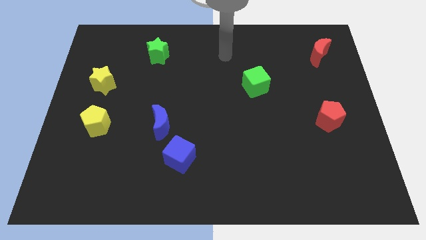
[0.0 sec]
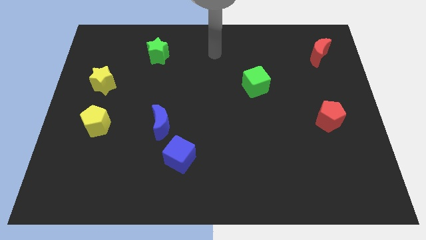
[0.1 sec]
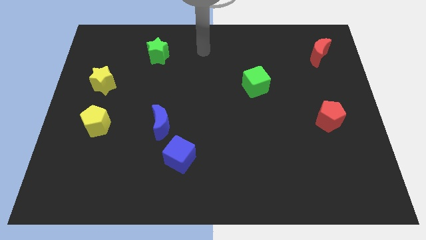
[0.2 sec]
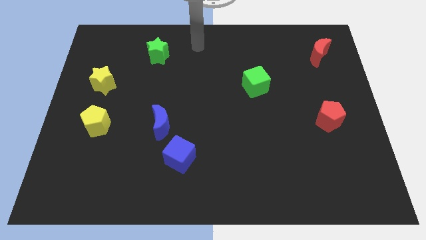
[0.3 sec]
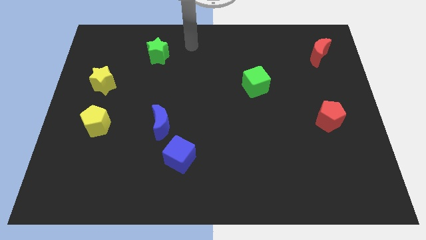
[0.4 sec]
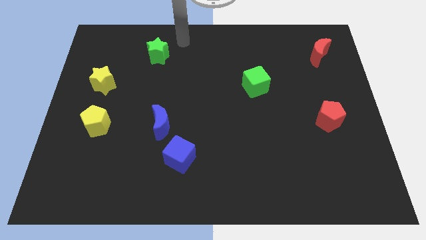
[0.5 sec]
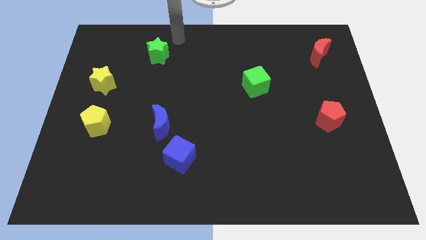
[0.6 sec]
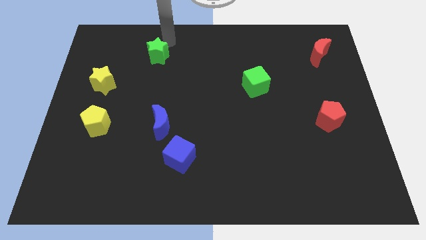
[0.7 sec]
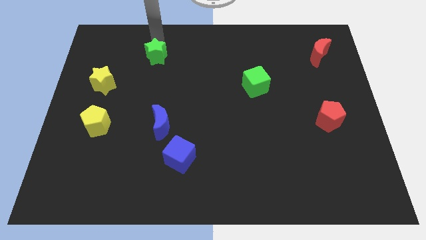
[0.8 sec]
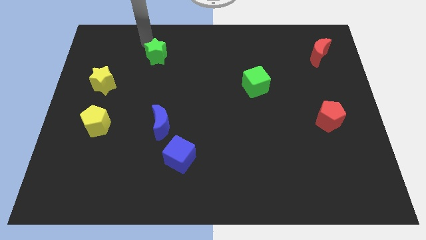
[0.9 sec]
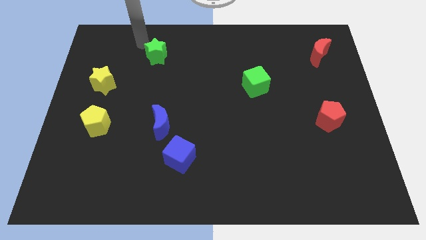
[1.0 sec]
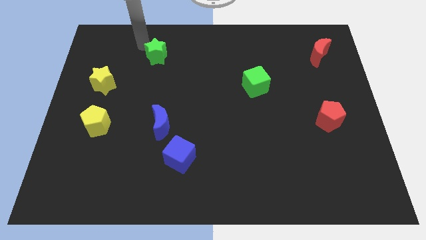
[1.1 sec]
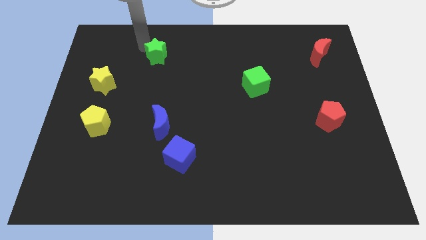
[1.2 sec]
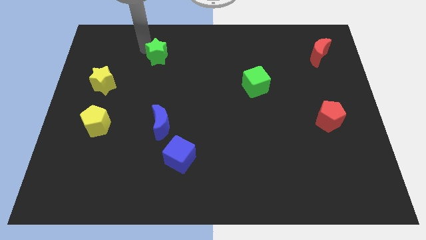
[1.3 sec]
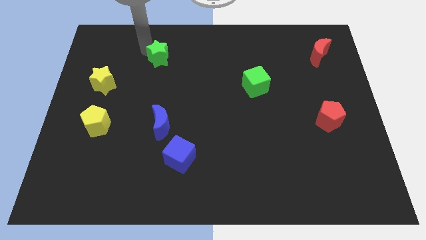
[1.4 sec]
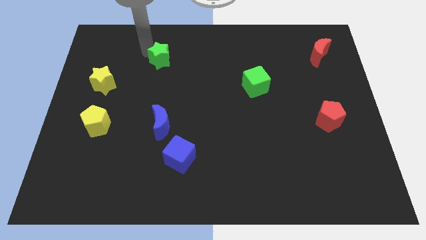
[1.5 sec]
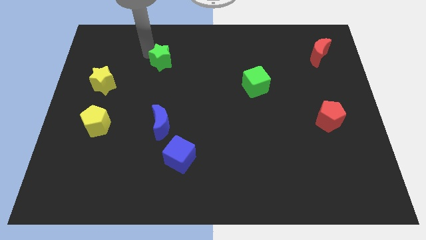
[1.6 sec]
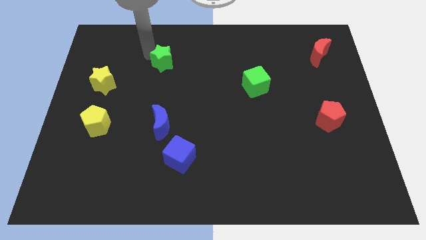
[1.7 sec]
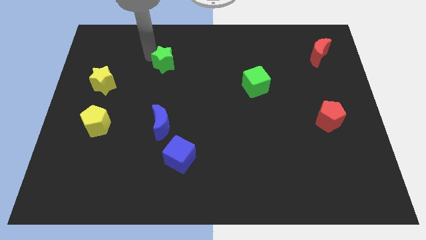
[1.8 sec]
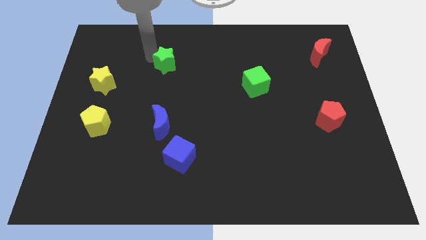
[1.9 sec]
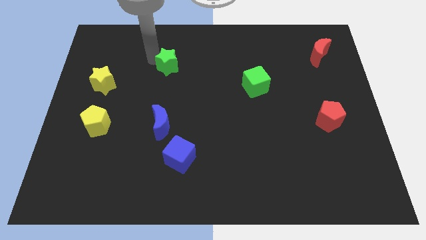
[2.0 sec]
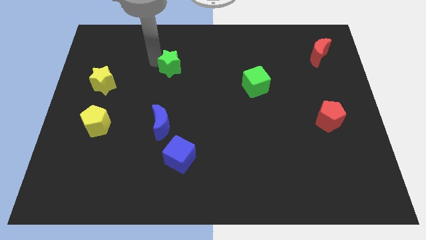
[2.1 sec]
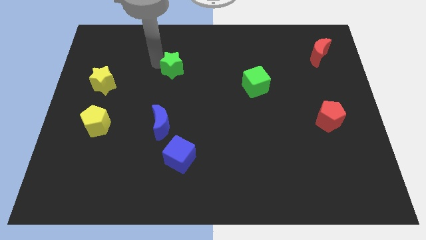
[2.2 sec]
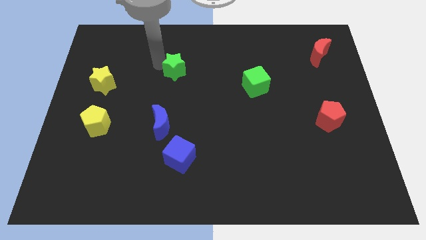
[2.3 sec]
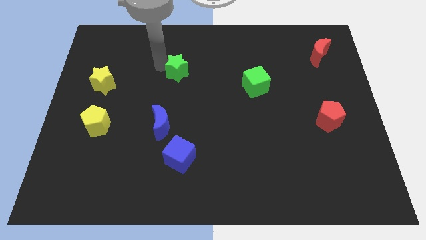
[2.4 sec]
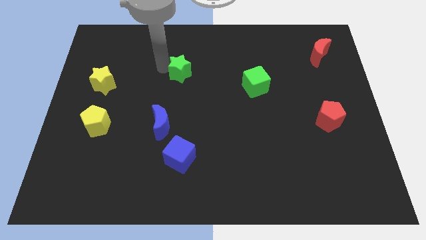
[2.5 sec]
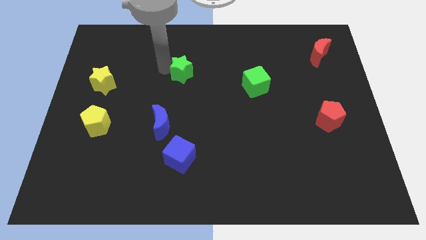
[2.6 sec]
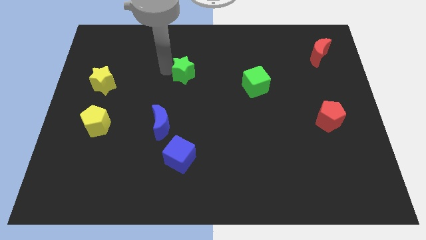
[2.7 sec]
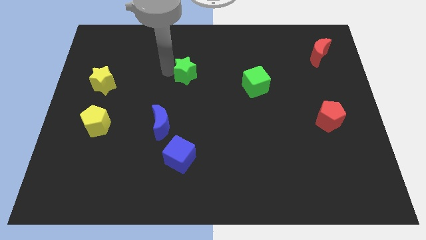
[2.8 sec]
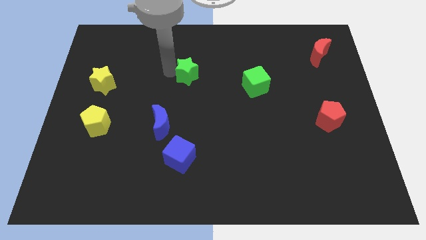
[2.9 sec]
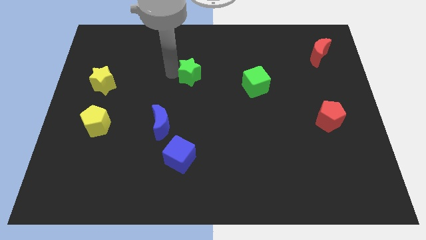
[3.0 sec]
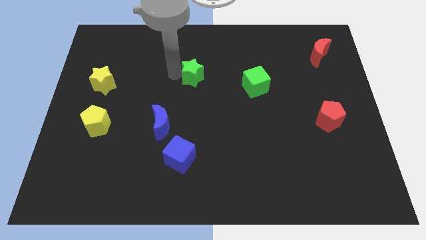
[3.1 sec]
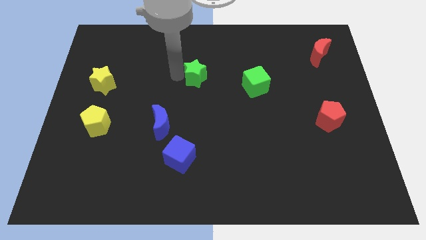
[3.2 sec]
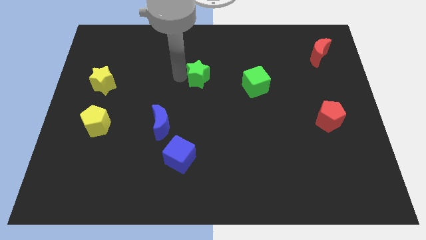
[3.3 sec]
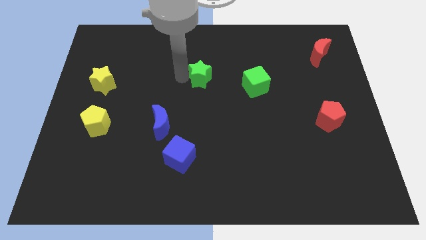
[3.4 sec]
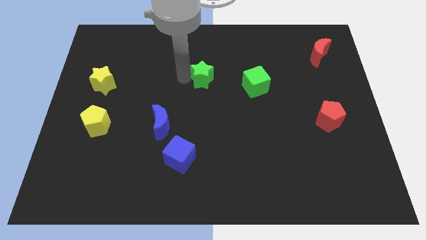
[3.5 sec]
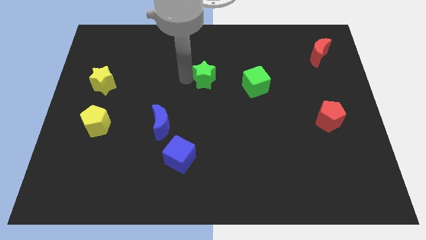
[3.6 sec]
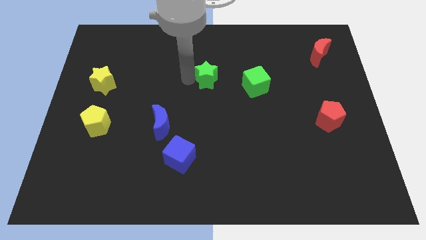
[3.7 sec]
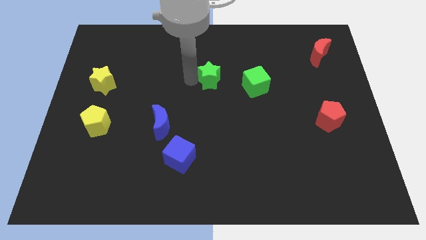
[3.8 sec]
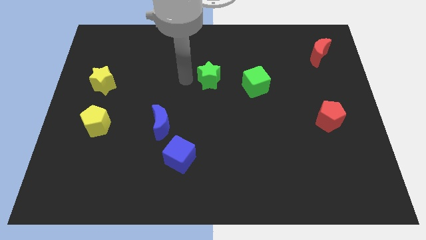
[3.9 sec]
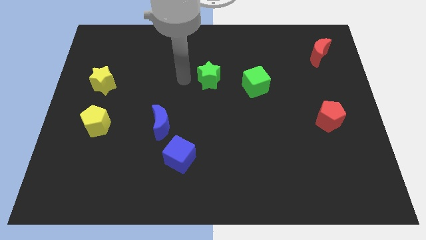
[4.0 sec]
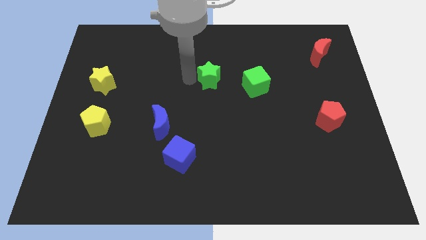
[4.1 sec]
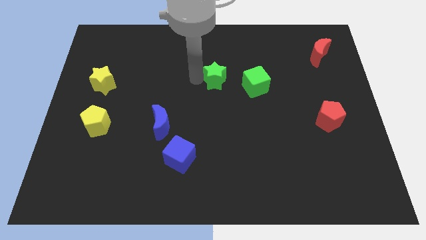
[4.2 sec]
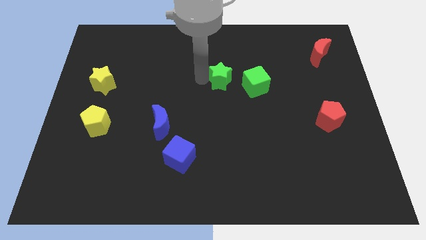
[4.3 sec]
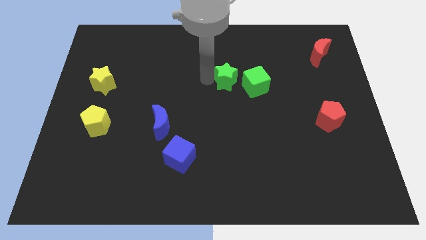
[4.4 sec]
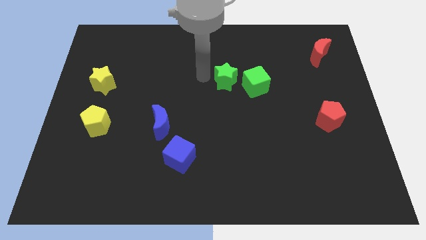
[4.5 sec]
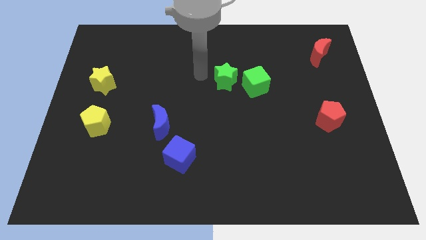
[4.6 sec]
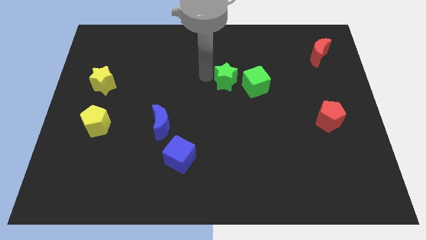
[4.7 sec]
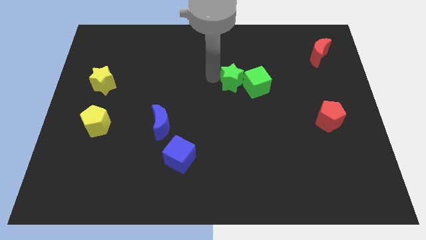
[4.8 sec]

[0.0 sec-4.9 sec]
push the green star next to the green cube

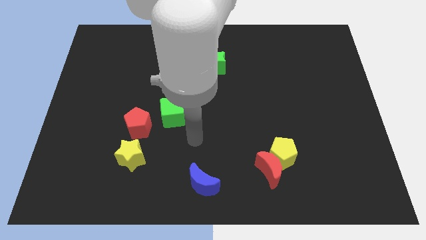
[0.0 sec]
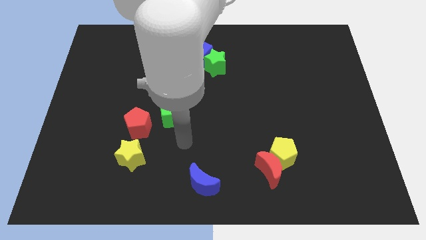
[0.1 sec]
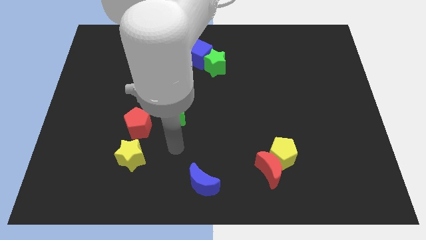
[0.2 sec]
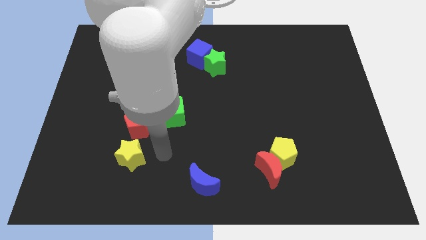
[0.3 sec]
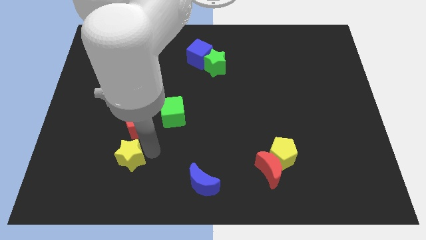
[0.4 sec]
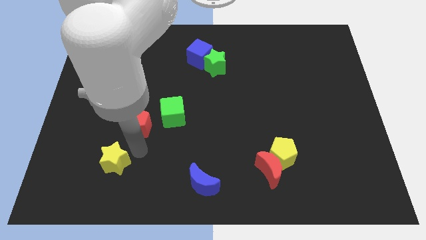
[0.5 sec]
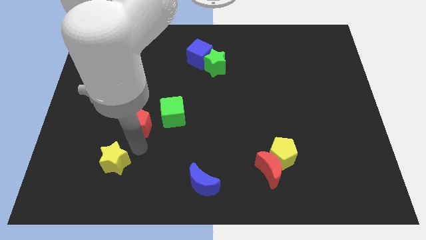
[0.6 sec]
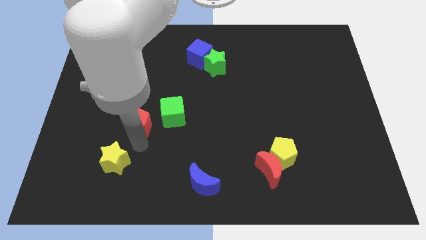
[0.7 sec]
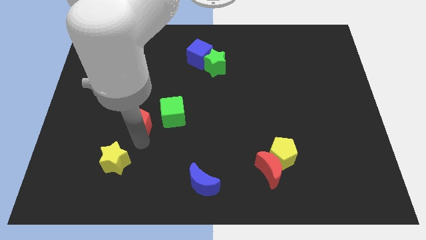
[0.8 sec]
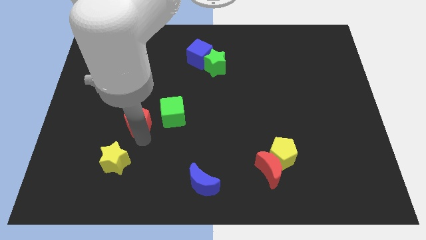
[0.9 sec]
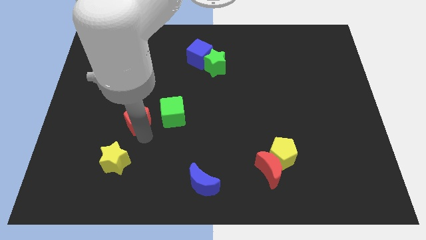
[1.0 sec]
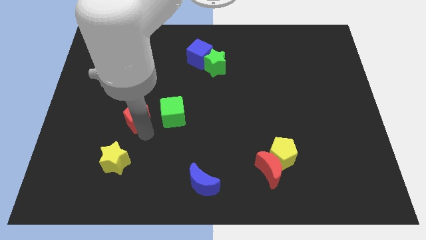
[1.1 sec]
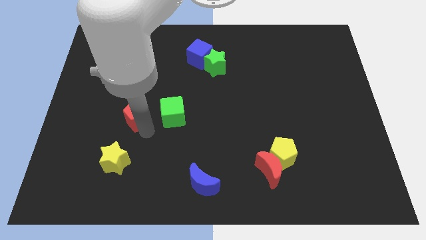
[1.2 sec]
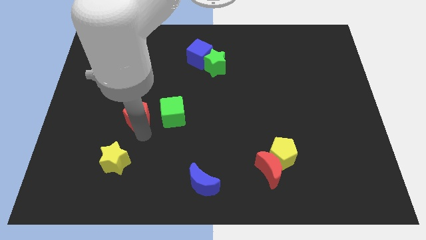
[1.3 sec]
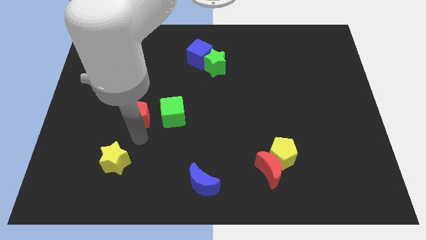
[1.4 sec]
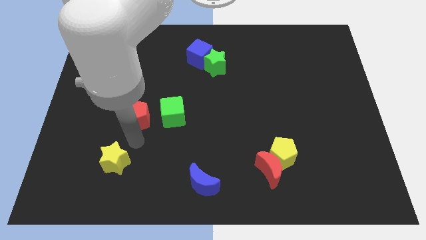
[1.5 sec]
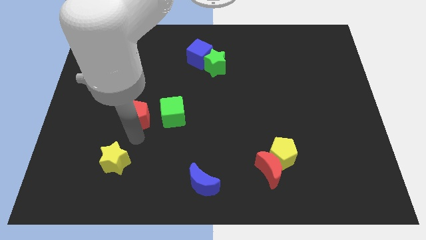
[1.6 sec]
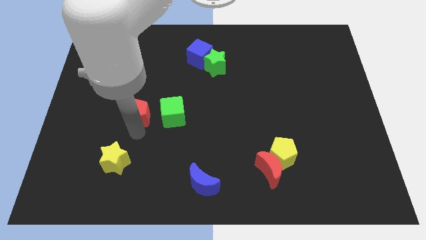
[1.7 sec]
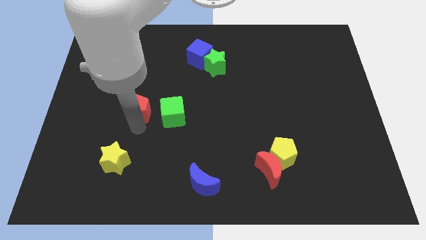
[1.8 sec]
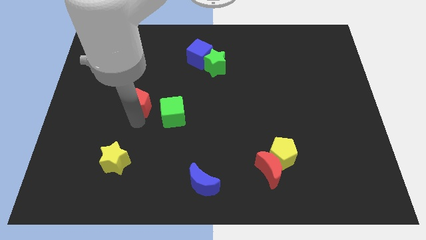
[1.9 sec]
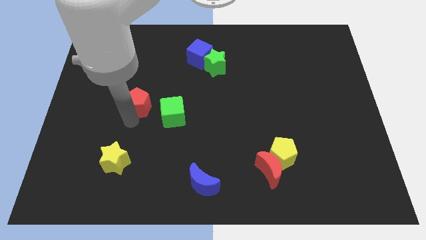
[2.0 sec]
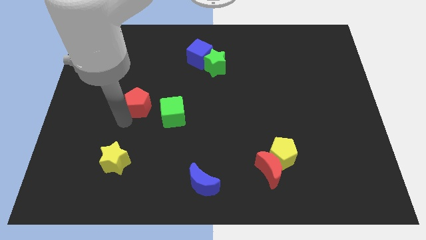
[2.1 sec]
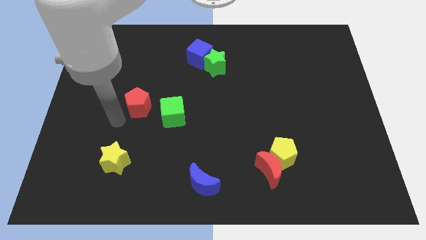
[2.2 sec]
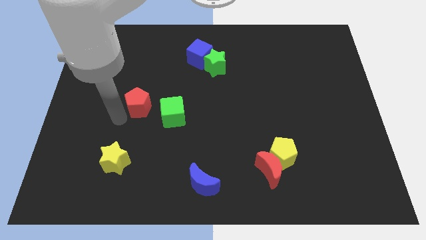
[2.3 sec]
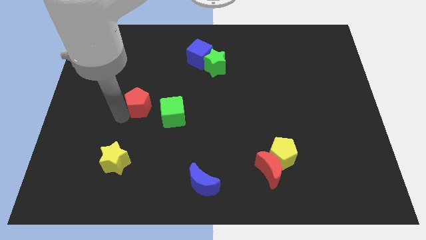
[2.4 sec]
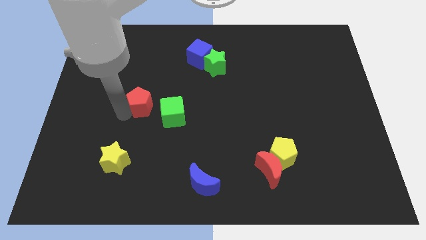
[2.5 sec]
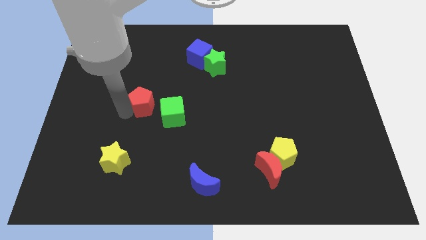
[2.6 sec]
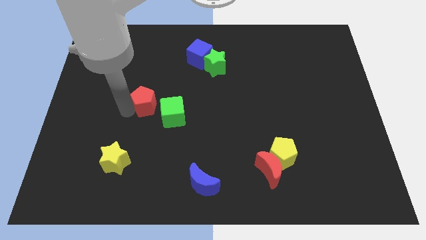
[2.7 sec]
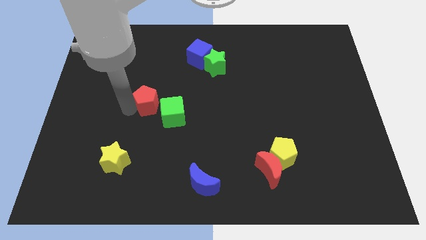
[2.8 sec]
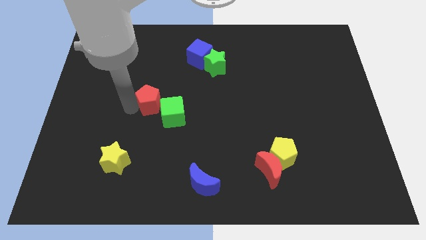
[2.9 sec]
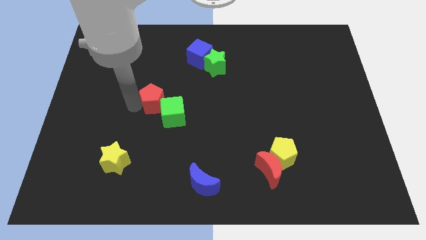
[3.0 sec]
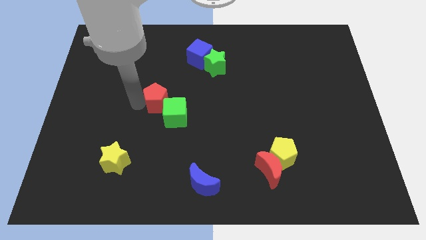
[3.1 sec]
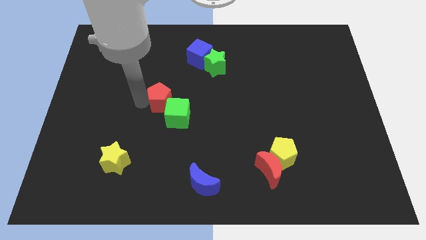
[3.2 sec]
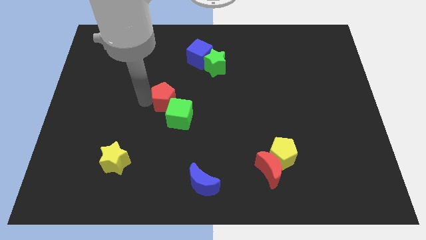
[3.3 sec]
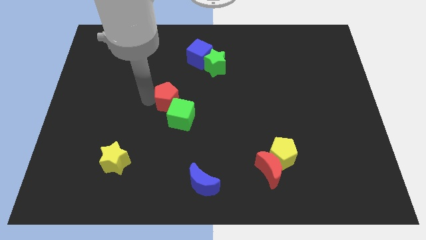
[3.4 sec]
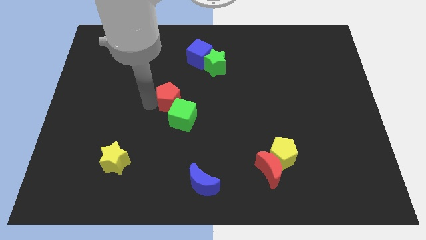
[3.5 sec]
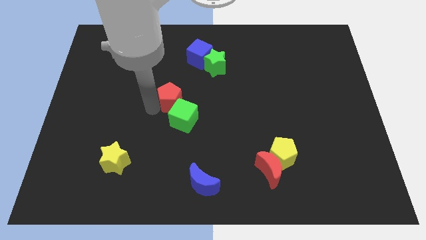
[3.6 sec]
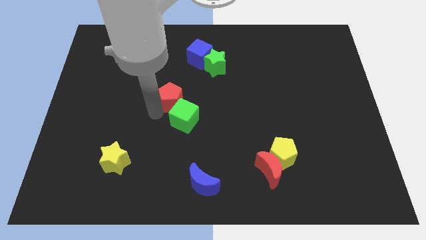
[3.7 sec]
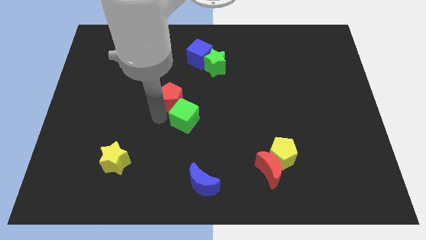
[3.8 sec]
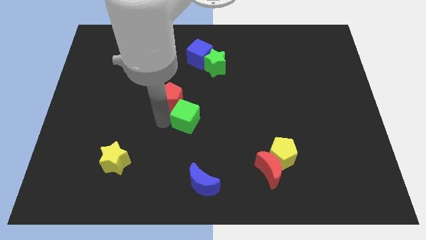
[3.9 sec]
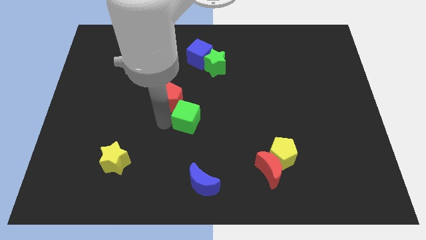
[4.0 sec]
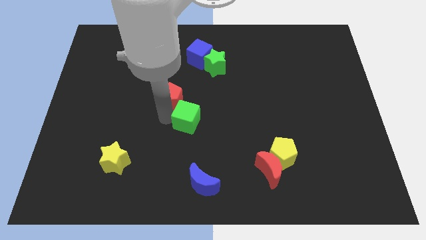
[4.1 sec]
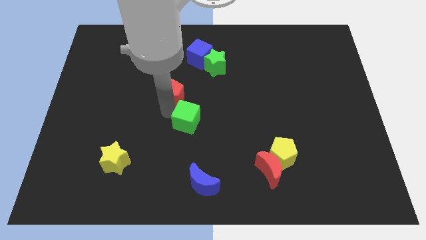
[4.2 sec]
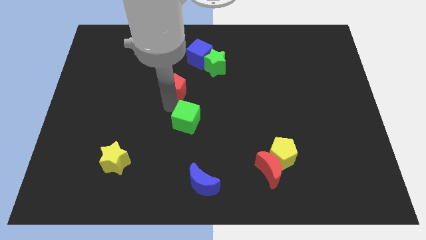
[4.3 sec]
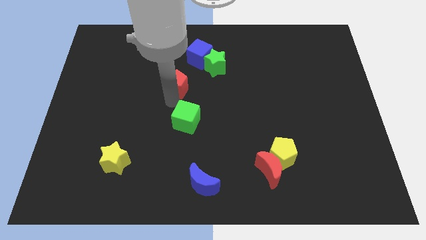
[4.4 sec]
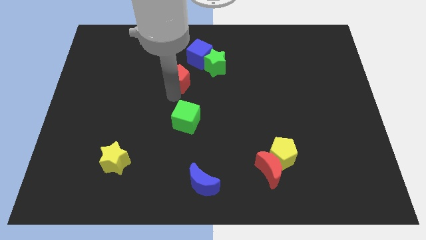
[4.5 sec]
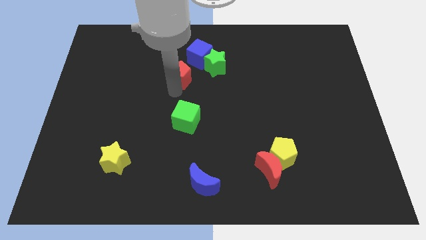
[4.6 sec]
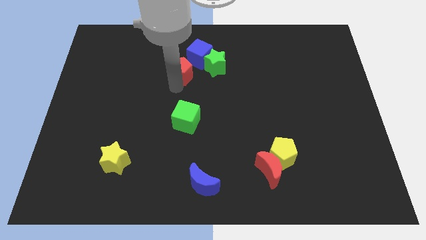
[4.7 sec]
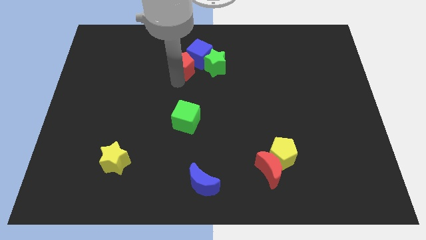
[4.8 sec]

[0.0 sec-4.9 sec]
put the red pentagon next to the blue cube
